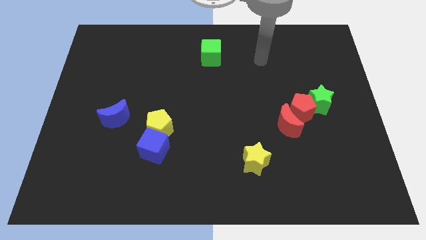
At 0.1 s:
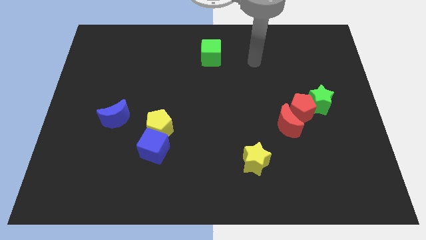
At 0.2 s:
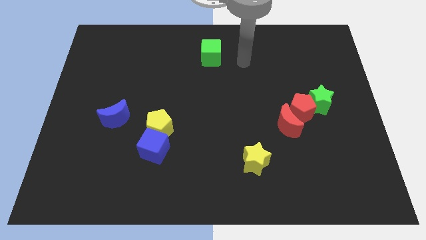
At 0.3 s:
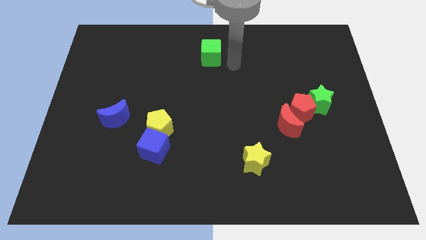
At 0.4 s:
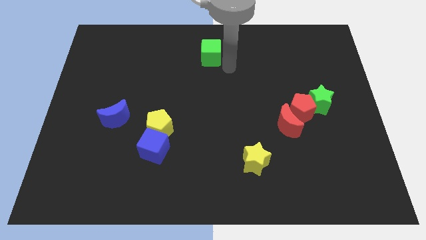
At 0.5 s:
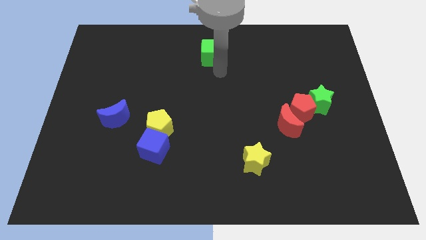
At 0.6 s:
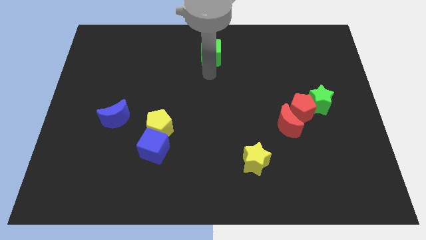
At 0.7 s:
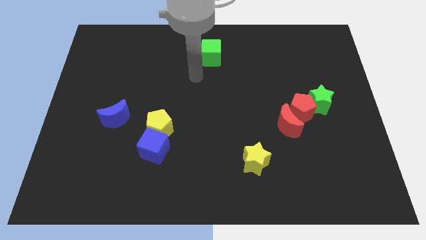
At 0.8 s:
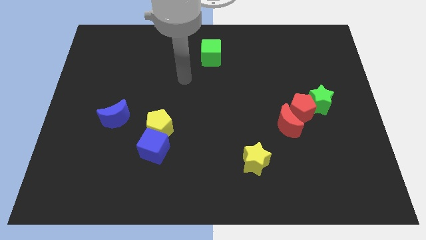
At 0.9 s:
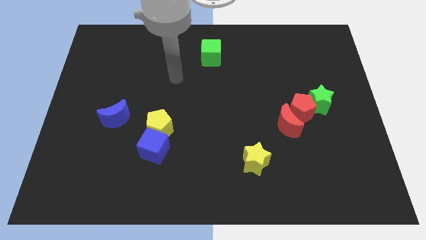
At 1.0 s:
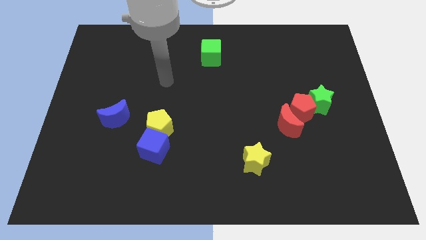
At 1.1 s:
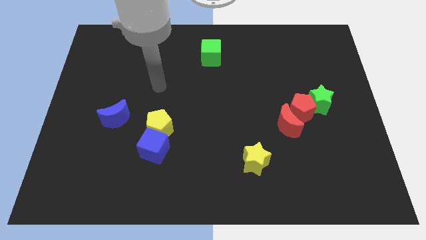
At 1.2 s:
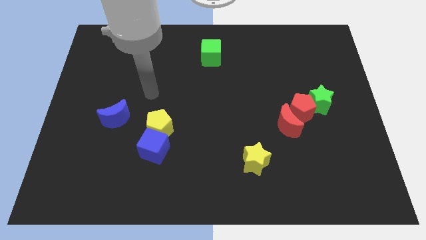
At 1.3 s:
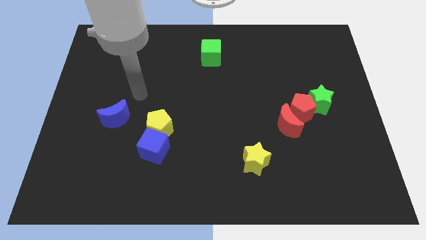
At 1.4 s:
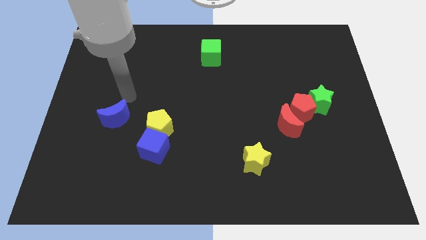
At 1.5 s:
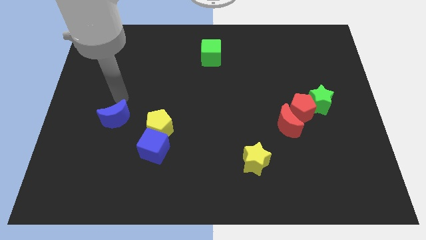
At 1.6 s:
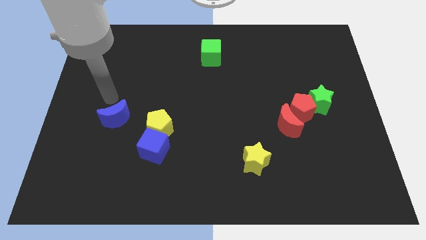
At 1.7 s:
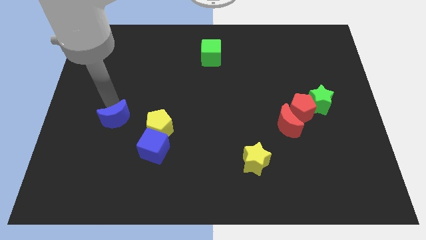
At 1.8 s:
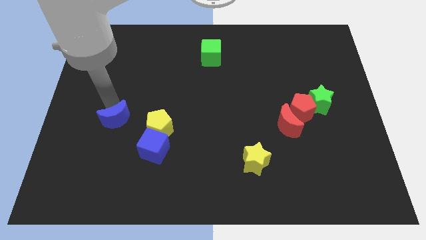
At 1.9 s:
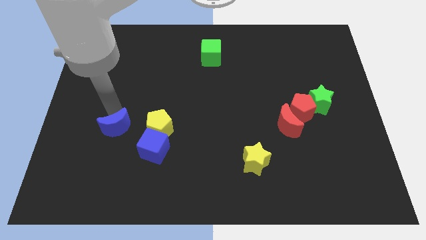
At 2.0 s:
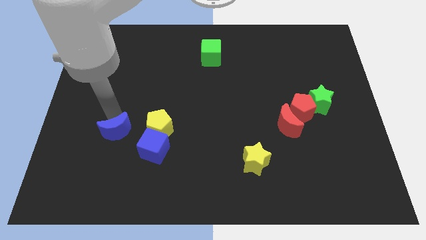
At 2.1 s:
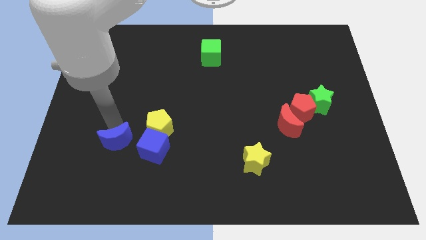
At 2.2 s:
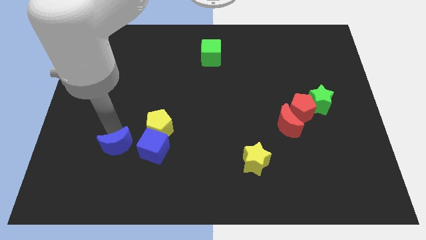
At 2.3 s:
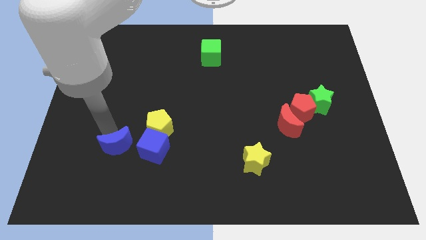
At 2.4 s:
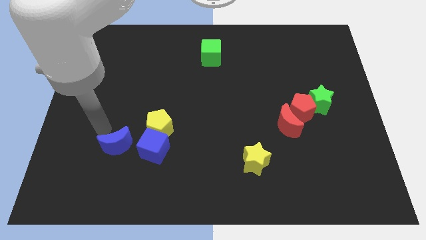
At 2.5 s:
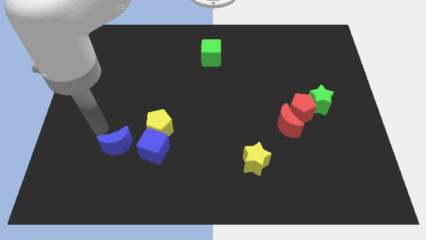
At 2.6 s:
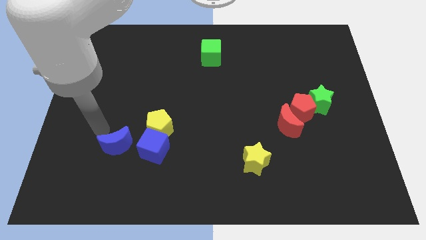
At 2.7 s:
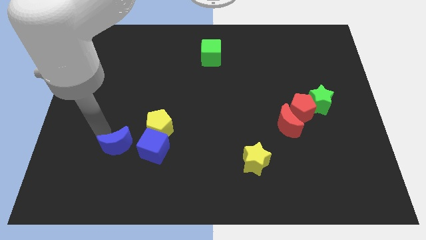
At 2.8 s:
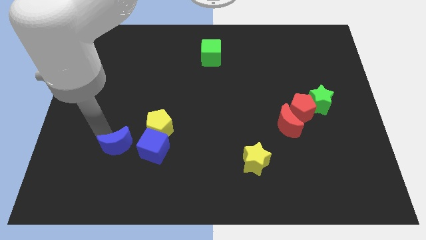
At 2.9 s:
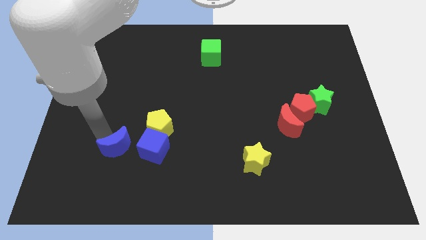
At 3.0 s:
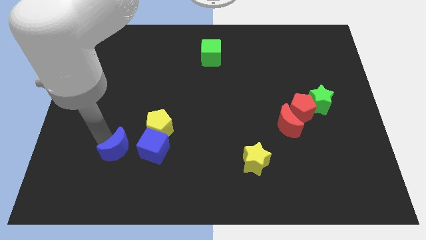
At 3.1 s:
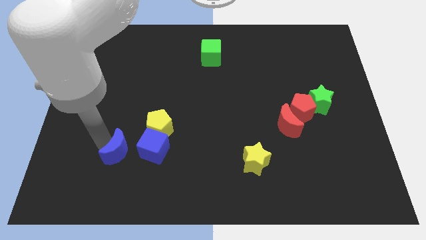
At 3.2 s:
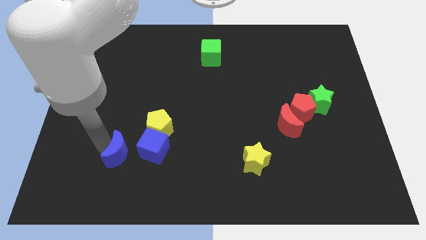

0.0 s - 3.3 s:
move the blue moon a little downwards and right diagonally

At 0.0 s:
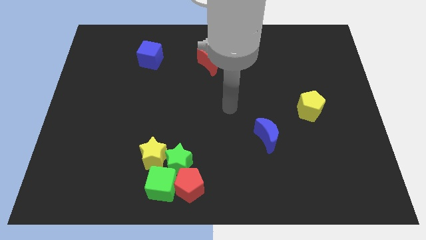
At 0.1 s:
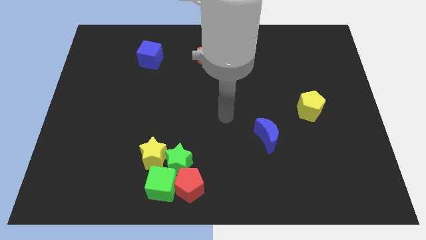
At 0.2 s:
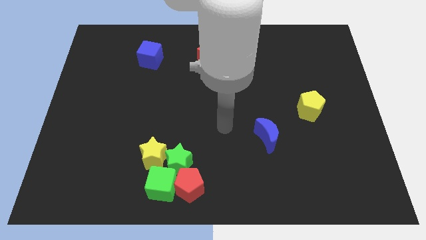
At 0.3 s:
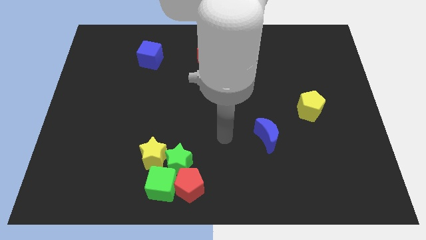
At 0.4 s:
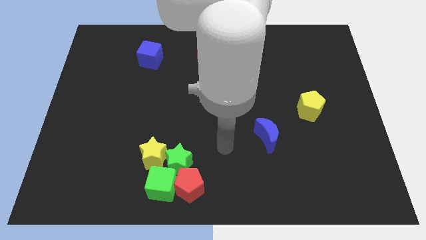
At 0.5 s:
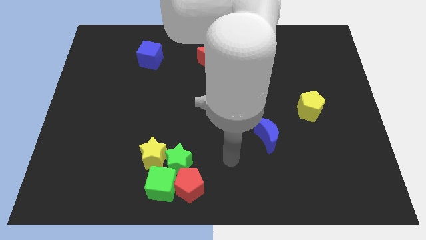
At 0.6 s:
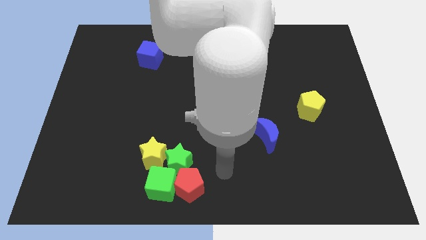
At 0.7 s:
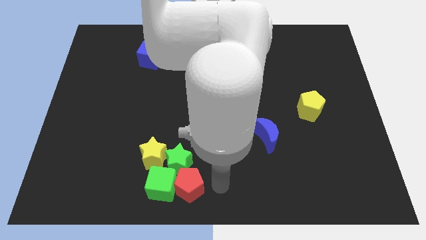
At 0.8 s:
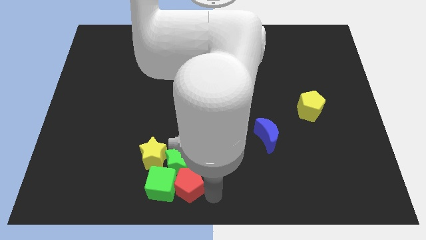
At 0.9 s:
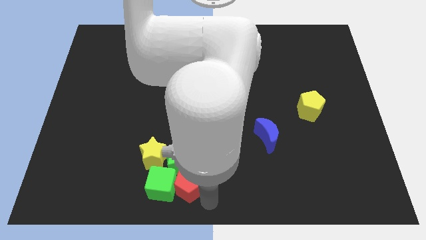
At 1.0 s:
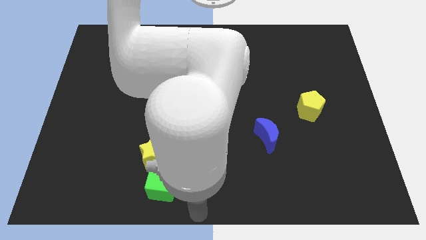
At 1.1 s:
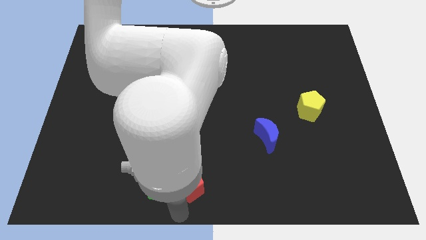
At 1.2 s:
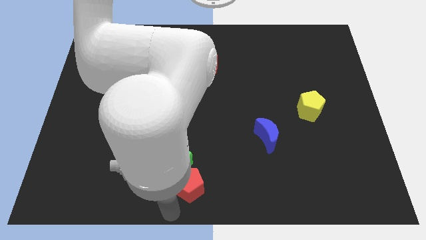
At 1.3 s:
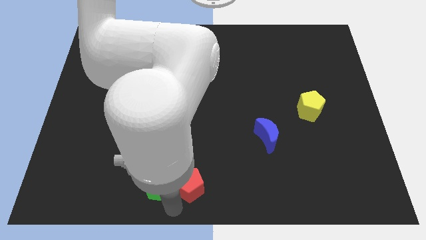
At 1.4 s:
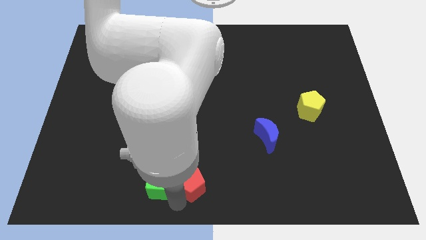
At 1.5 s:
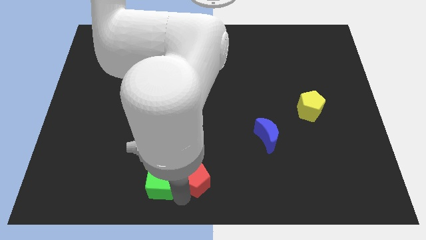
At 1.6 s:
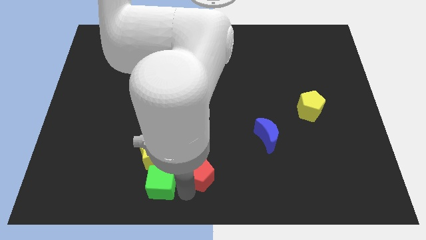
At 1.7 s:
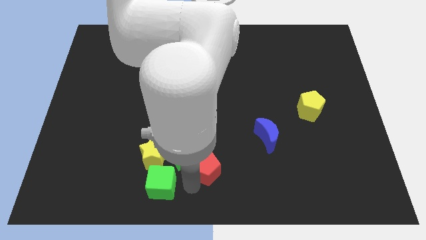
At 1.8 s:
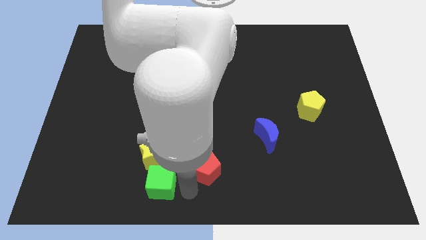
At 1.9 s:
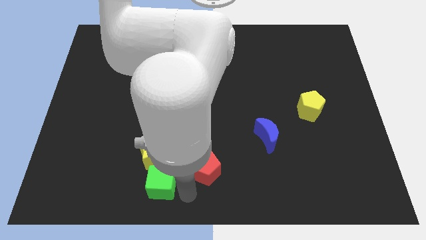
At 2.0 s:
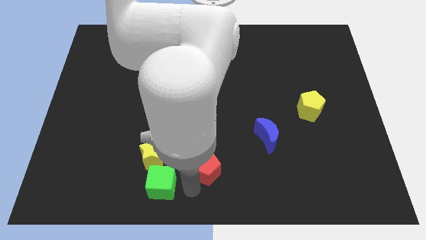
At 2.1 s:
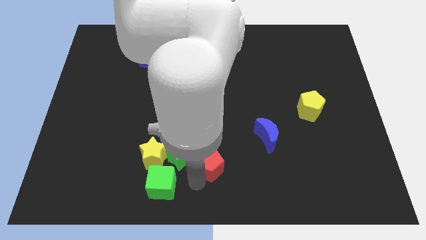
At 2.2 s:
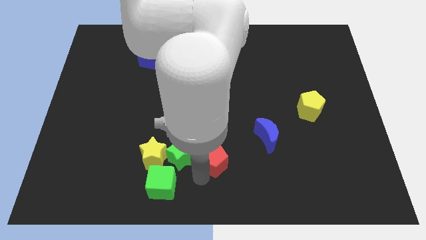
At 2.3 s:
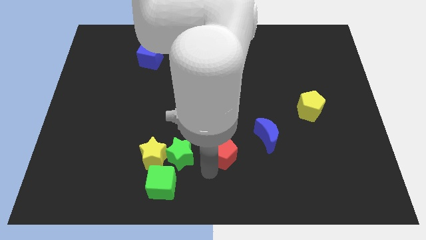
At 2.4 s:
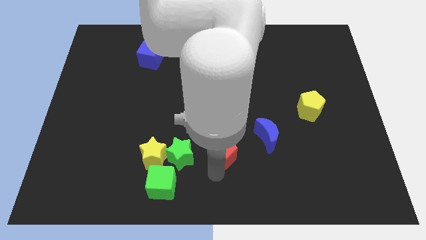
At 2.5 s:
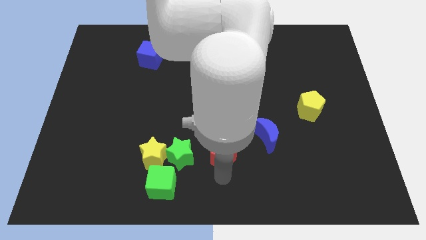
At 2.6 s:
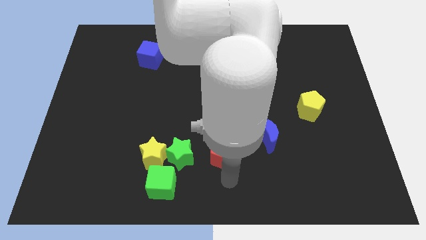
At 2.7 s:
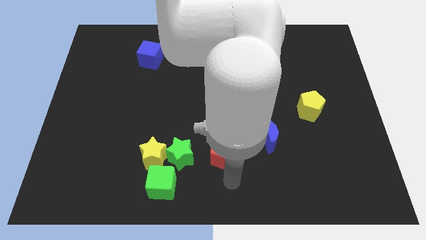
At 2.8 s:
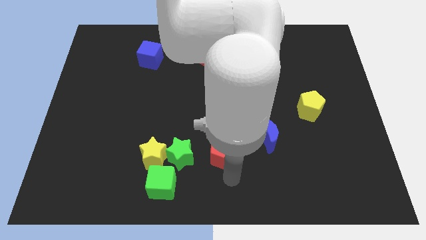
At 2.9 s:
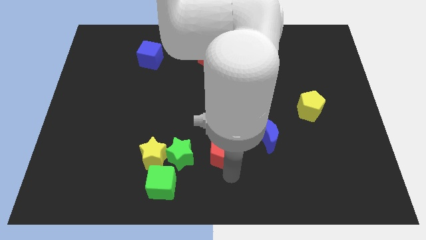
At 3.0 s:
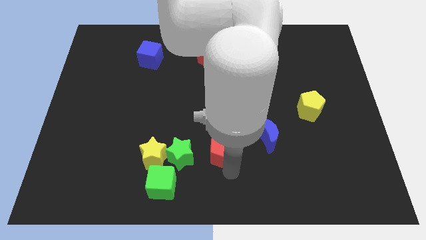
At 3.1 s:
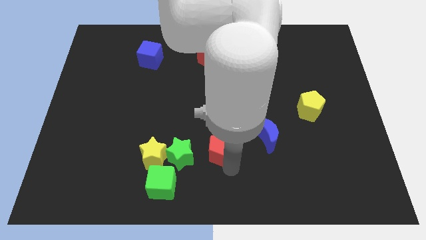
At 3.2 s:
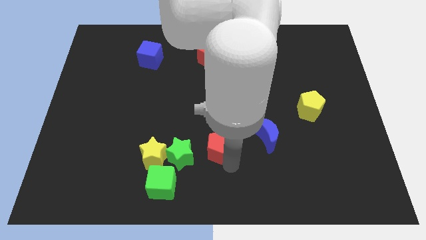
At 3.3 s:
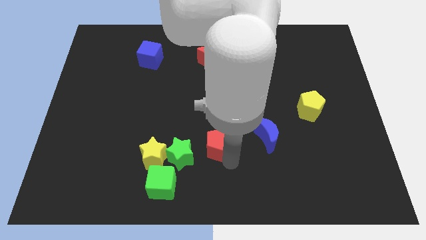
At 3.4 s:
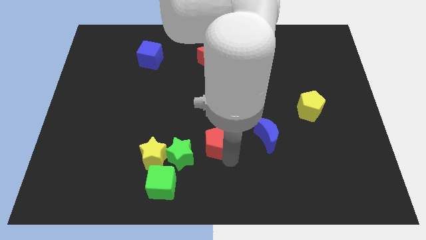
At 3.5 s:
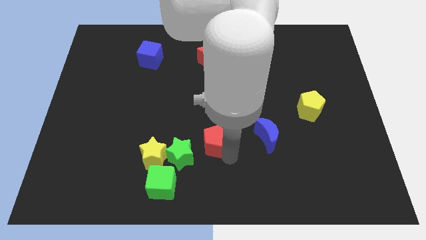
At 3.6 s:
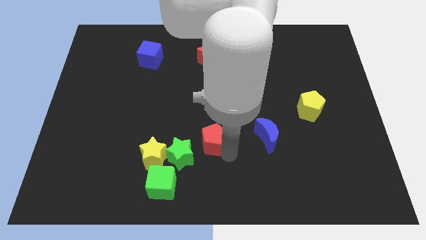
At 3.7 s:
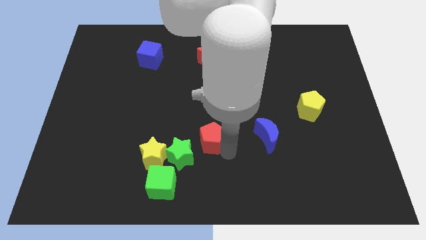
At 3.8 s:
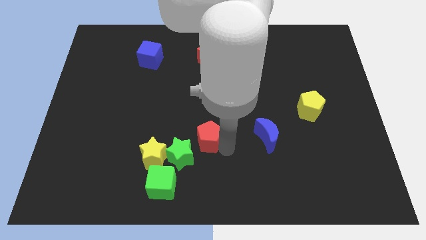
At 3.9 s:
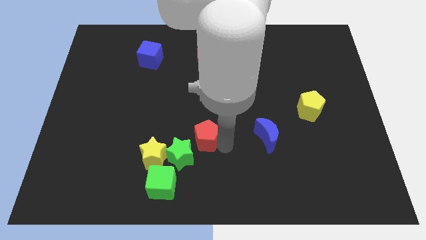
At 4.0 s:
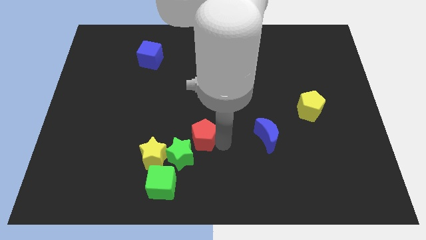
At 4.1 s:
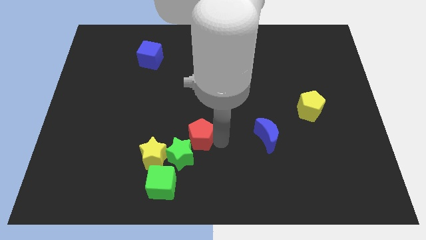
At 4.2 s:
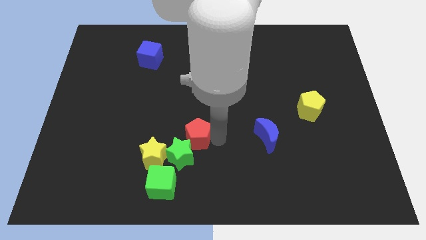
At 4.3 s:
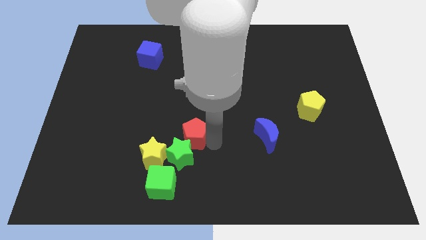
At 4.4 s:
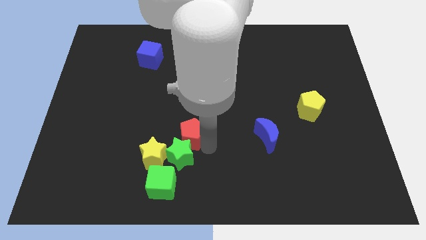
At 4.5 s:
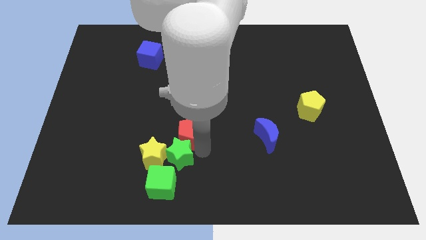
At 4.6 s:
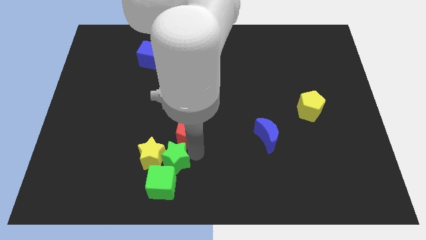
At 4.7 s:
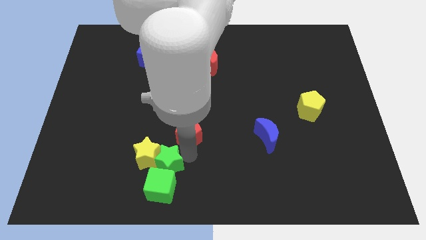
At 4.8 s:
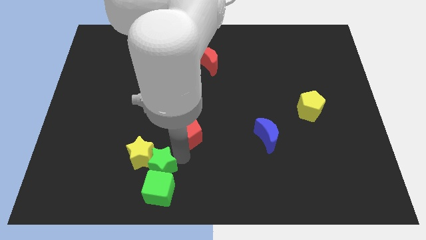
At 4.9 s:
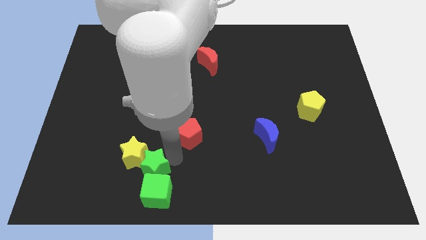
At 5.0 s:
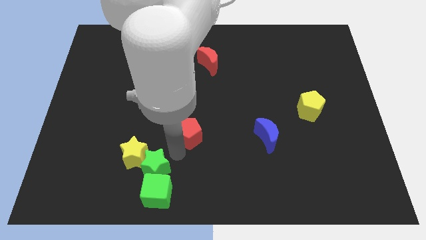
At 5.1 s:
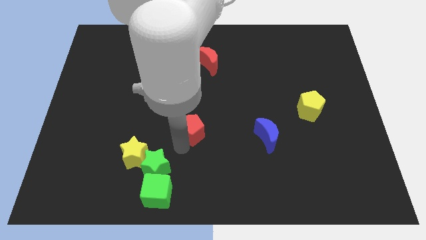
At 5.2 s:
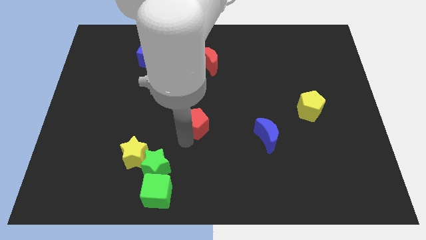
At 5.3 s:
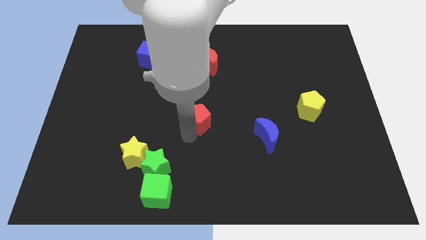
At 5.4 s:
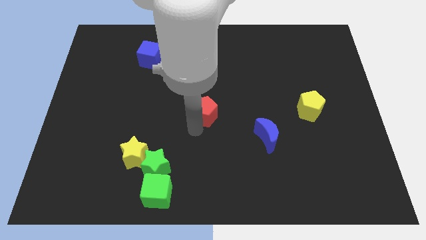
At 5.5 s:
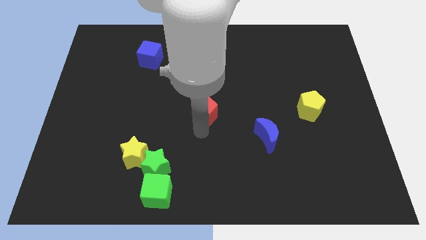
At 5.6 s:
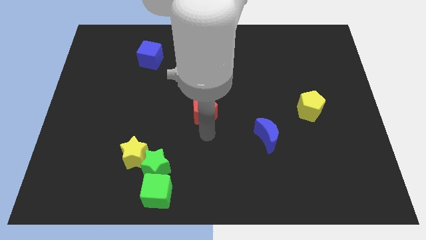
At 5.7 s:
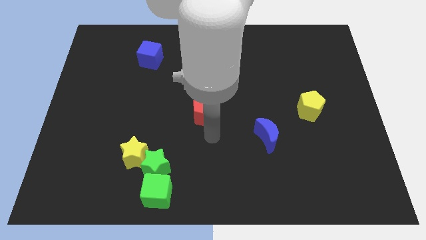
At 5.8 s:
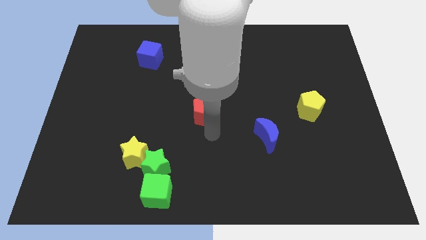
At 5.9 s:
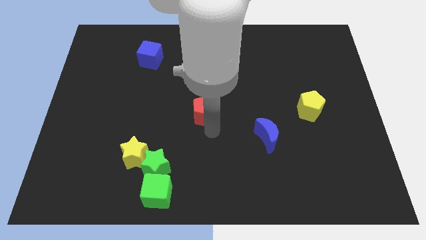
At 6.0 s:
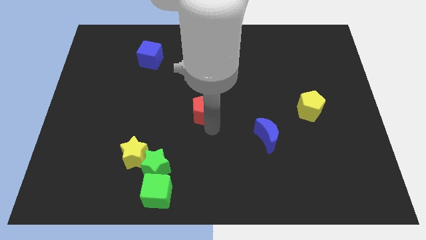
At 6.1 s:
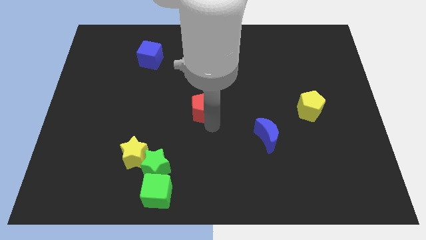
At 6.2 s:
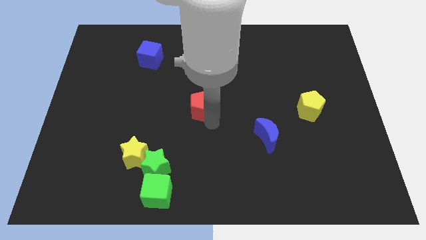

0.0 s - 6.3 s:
push the red pentagon upwards
